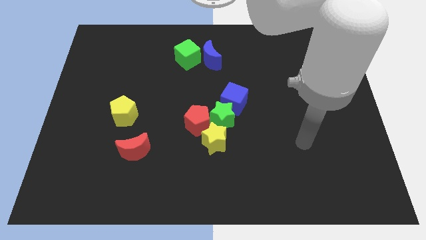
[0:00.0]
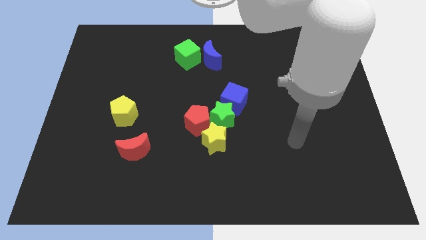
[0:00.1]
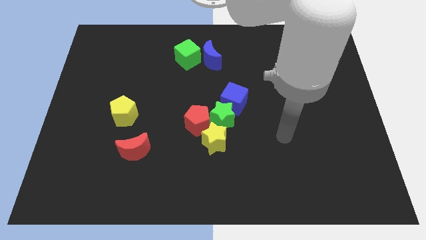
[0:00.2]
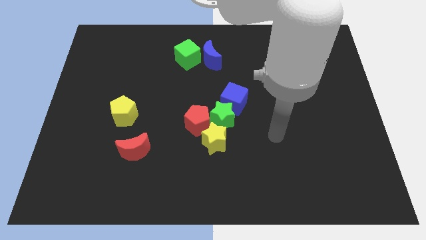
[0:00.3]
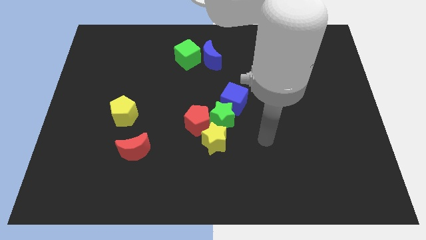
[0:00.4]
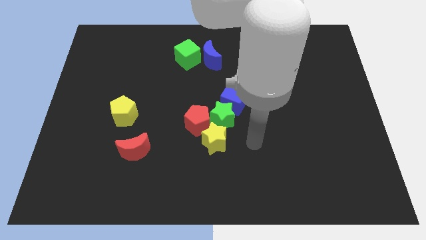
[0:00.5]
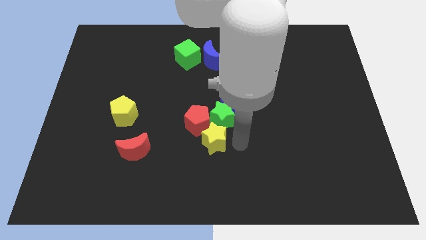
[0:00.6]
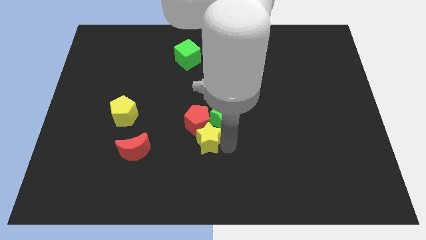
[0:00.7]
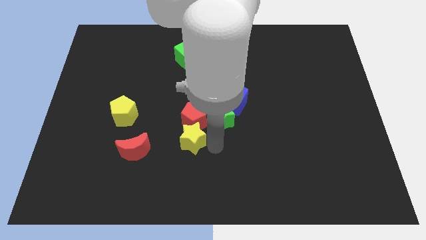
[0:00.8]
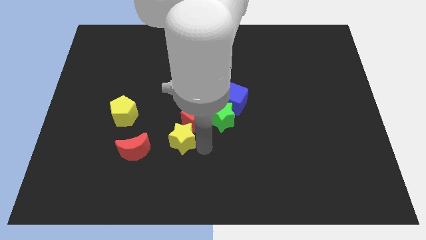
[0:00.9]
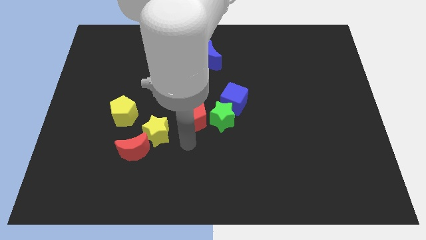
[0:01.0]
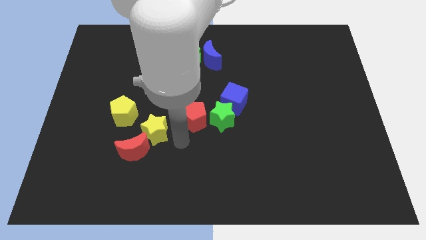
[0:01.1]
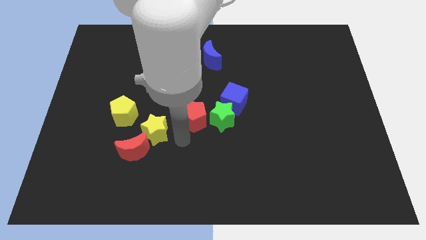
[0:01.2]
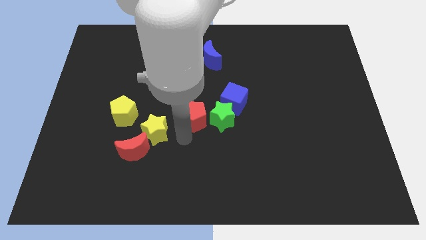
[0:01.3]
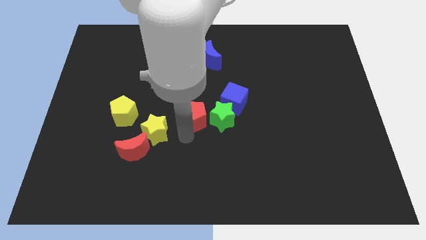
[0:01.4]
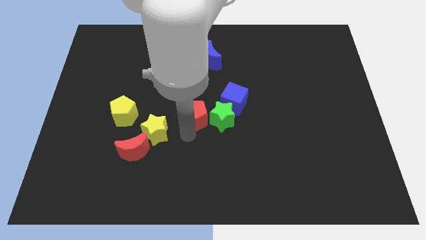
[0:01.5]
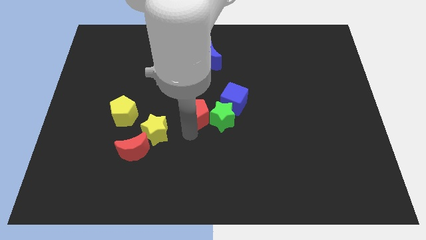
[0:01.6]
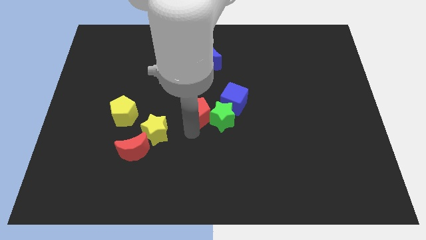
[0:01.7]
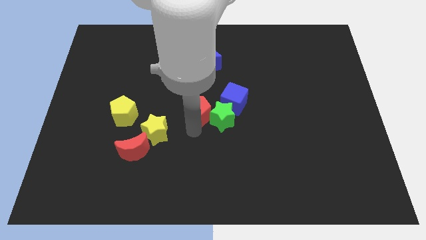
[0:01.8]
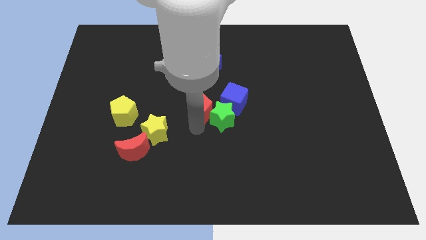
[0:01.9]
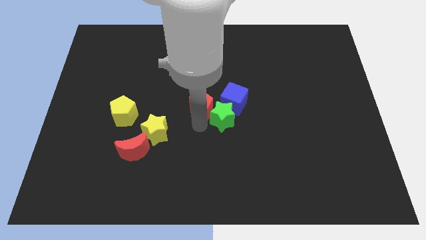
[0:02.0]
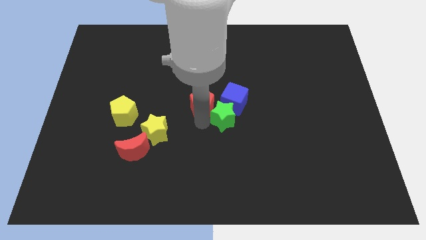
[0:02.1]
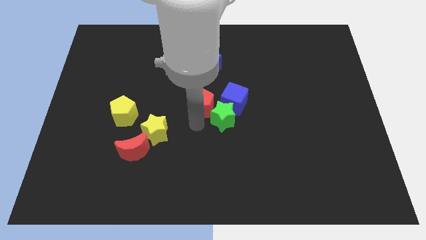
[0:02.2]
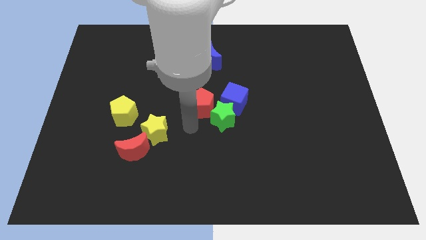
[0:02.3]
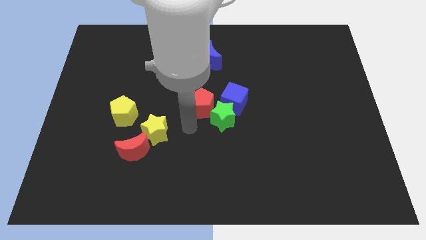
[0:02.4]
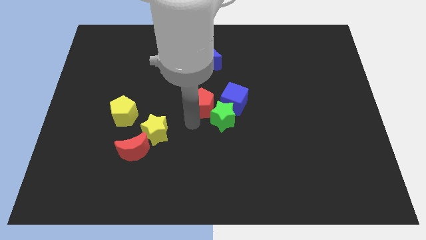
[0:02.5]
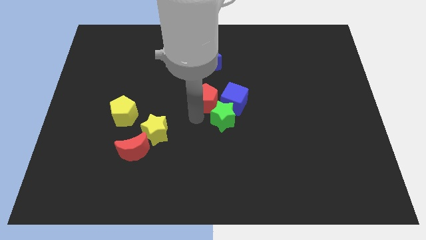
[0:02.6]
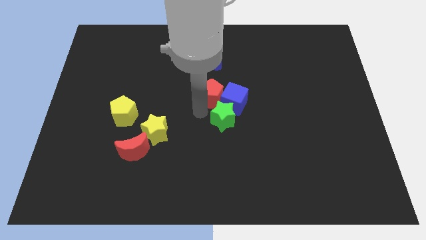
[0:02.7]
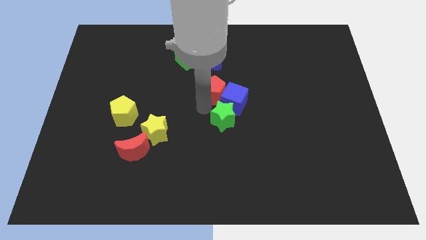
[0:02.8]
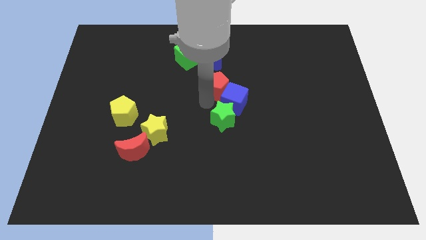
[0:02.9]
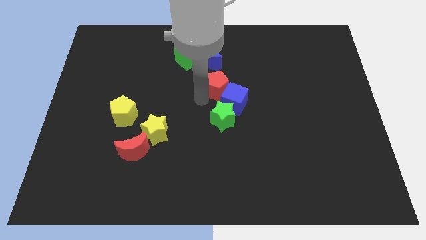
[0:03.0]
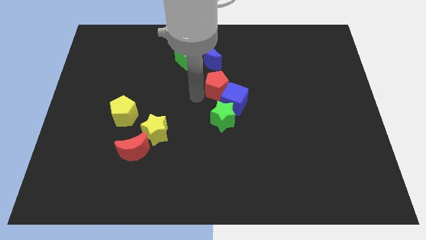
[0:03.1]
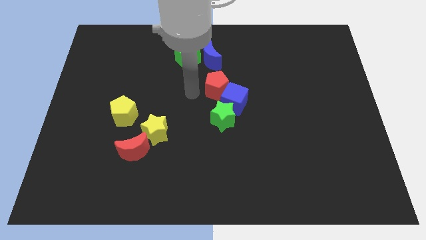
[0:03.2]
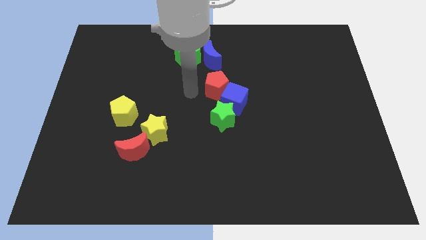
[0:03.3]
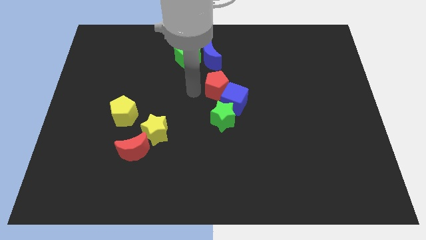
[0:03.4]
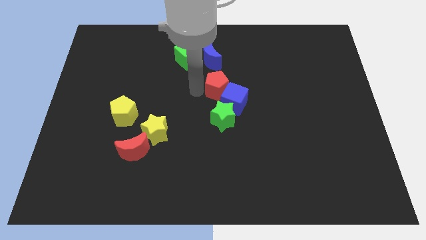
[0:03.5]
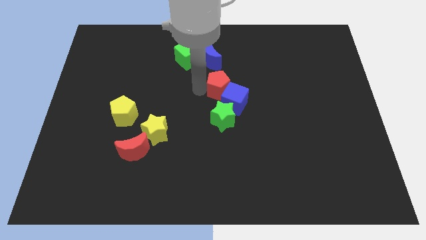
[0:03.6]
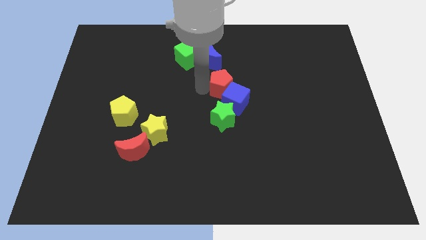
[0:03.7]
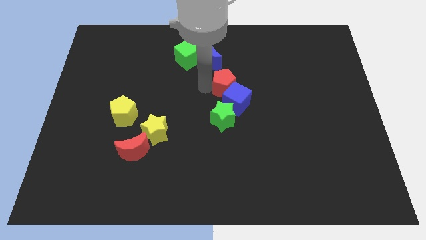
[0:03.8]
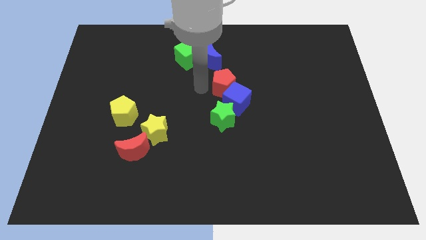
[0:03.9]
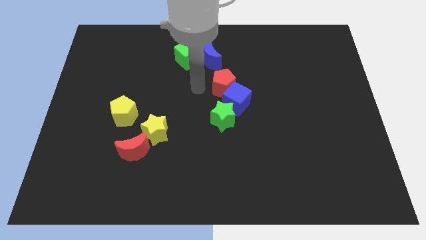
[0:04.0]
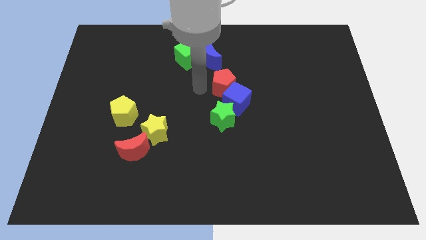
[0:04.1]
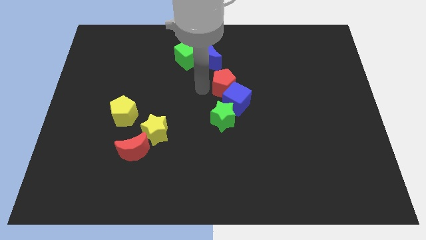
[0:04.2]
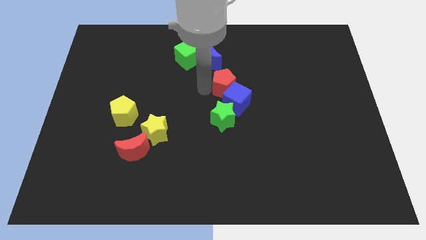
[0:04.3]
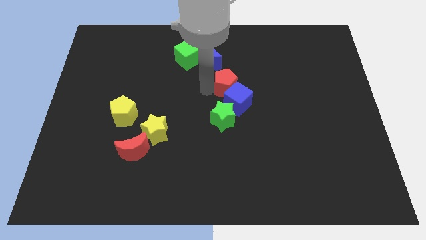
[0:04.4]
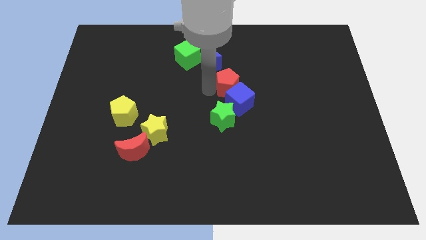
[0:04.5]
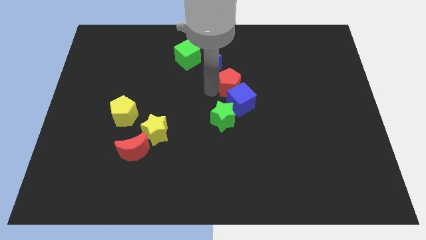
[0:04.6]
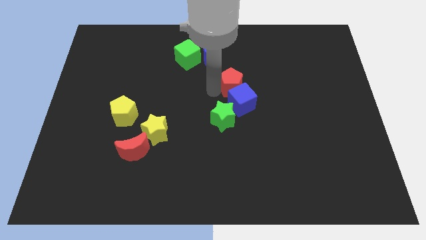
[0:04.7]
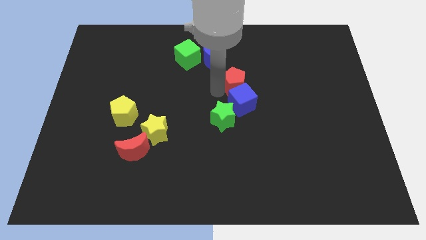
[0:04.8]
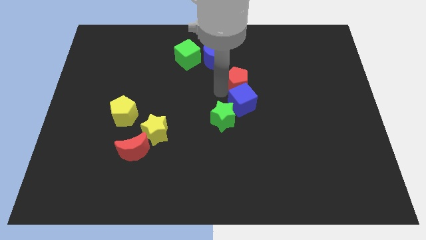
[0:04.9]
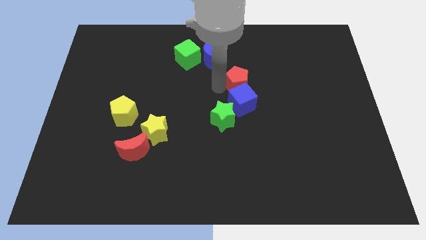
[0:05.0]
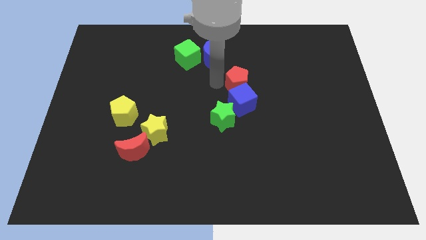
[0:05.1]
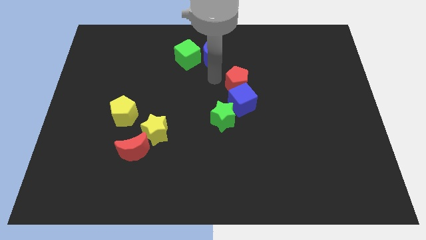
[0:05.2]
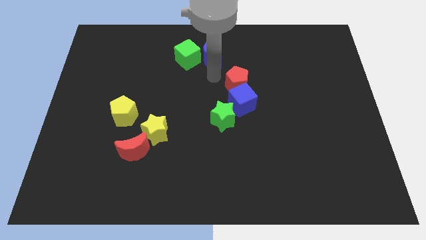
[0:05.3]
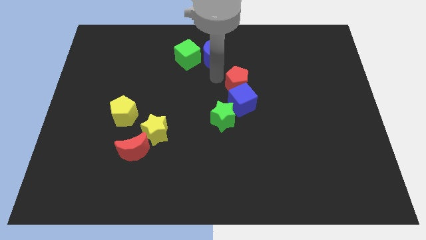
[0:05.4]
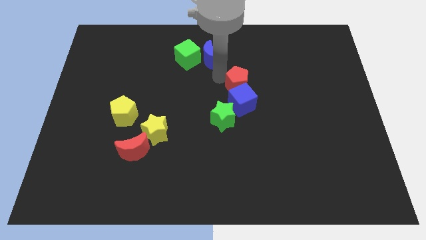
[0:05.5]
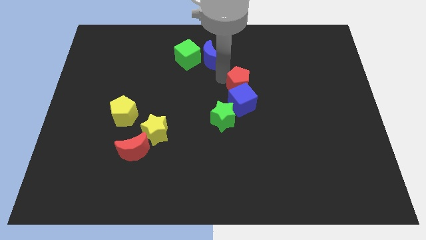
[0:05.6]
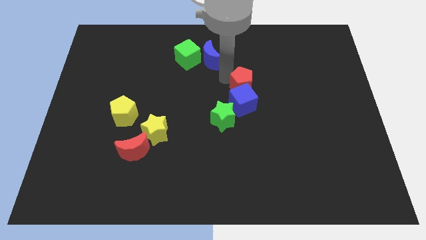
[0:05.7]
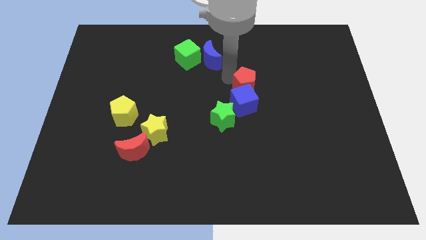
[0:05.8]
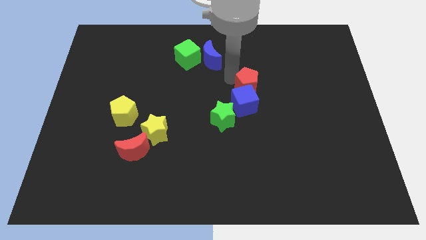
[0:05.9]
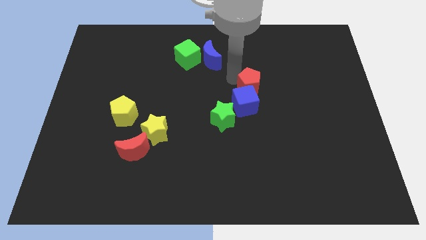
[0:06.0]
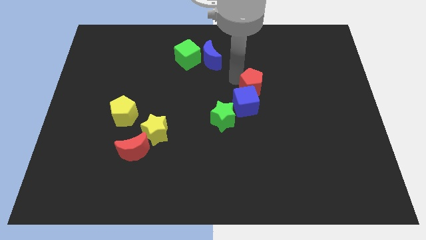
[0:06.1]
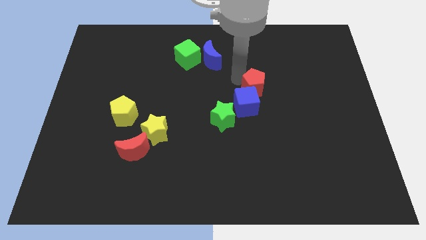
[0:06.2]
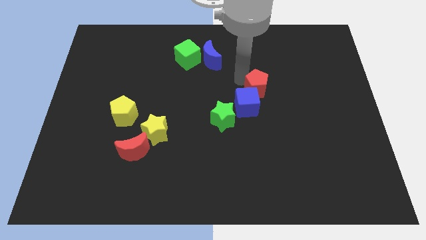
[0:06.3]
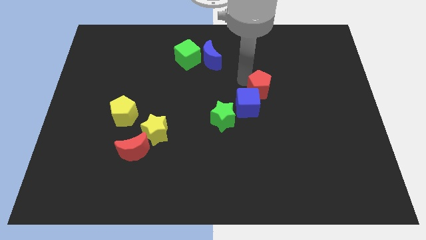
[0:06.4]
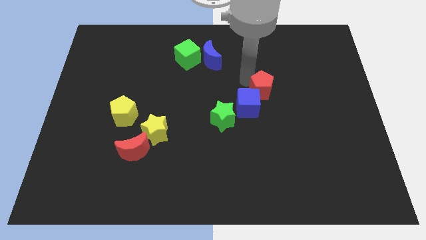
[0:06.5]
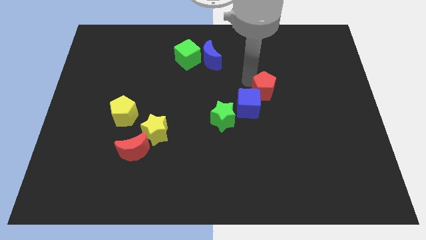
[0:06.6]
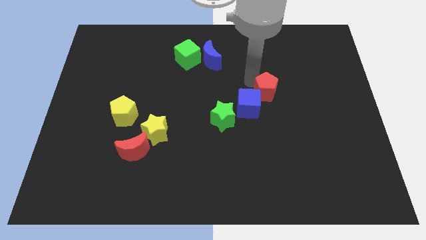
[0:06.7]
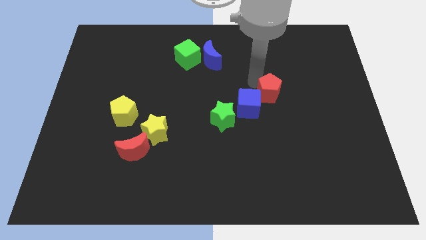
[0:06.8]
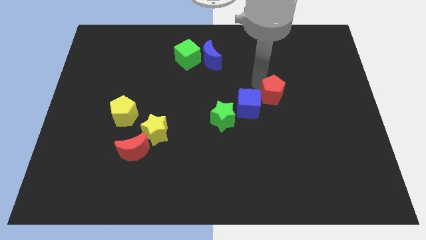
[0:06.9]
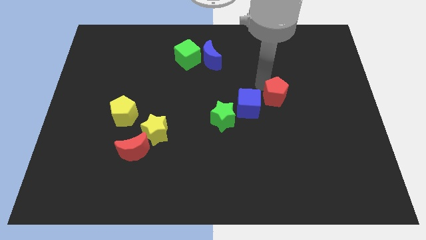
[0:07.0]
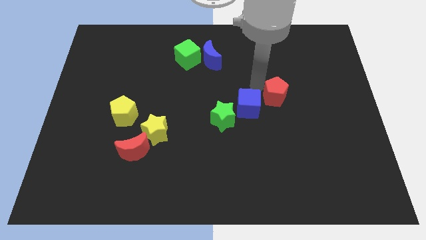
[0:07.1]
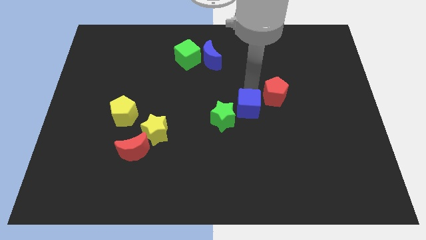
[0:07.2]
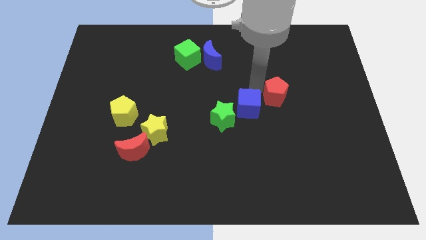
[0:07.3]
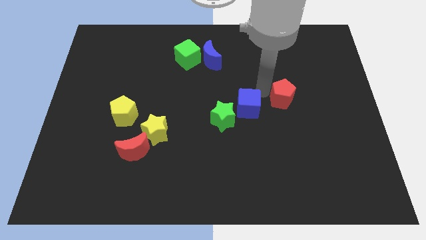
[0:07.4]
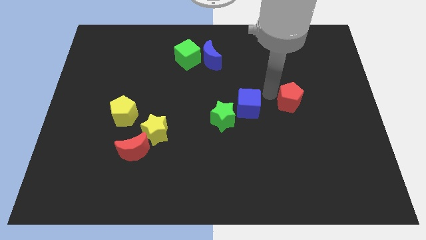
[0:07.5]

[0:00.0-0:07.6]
move the red pentagon right

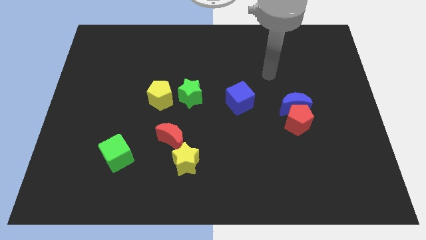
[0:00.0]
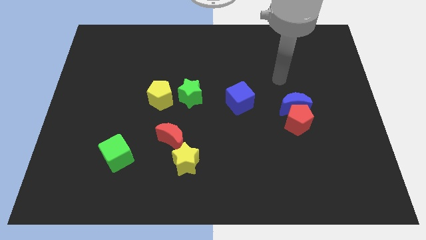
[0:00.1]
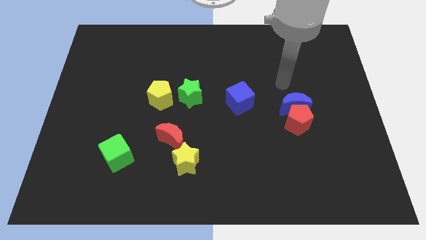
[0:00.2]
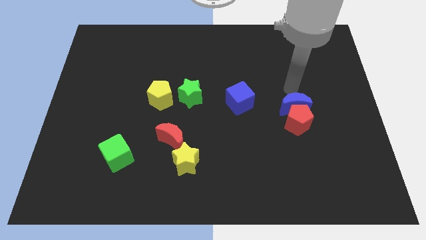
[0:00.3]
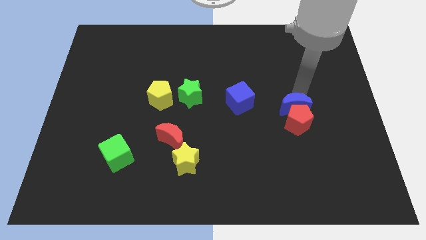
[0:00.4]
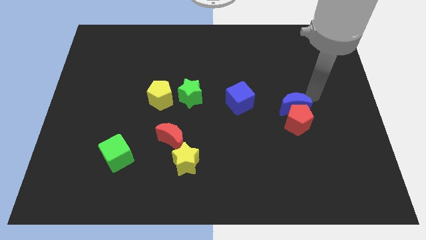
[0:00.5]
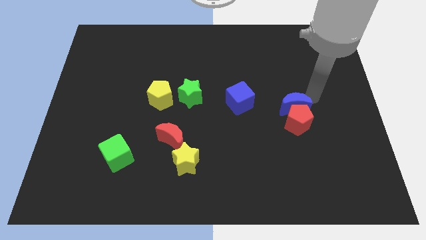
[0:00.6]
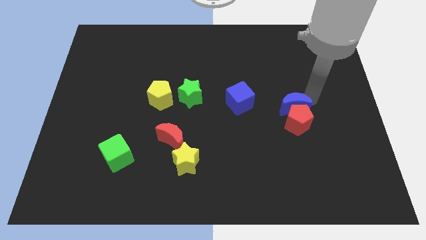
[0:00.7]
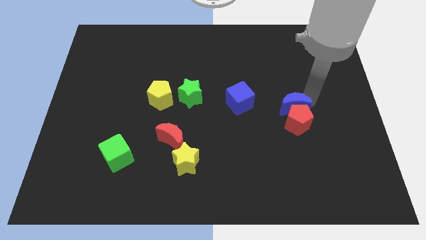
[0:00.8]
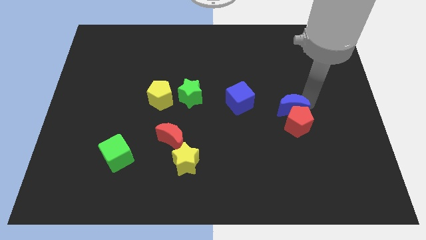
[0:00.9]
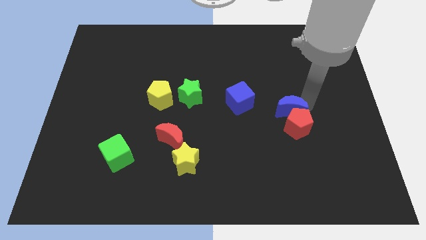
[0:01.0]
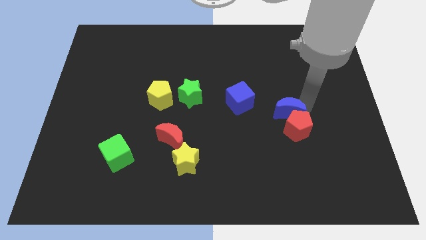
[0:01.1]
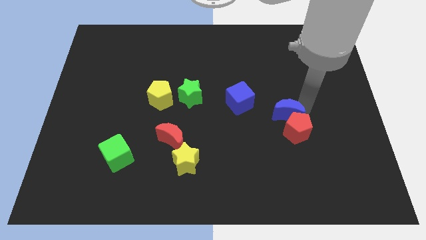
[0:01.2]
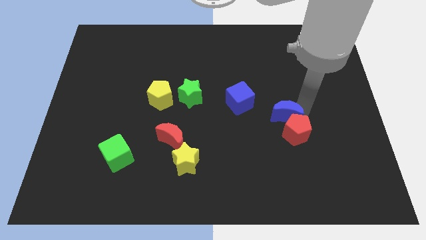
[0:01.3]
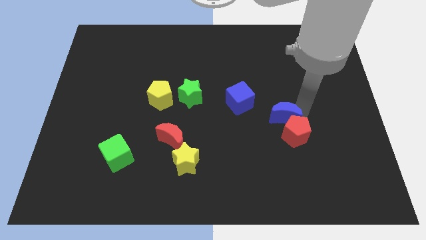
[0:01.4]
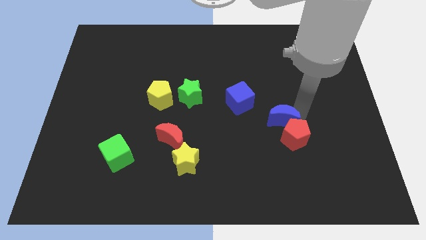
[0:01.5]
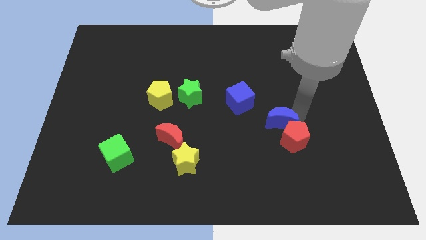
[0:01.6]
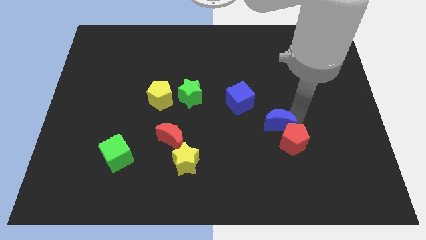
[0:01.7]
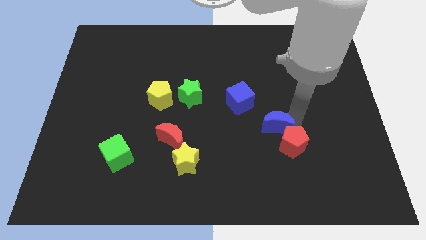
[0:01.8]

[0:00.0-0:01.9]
push the blue moon a little downwards and left diagonally
